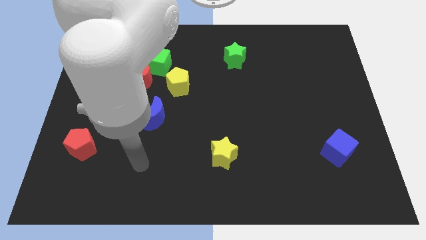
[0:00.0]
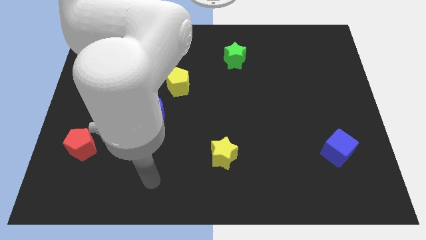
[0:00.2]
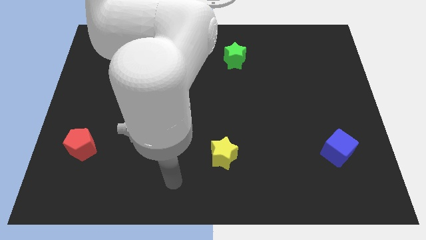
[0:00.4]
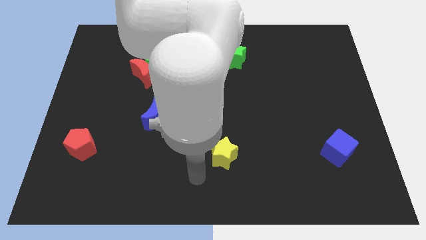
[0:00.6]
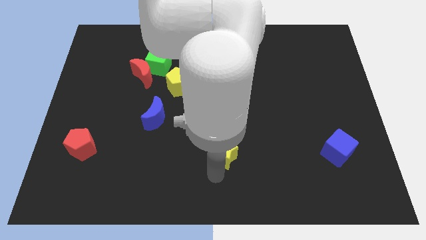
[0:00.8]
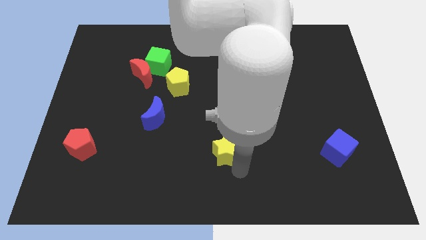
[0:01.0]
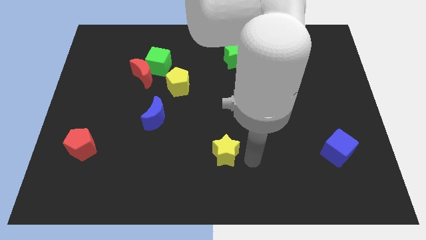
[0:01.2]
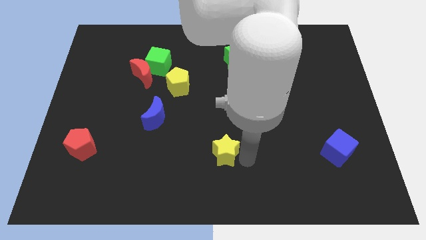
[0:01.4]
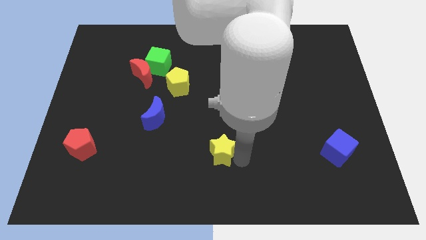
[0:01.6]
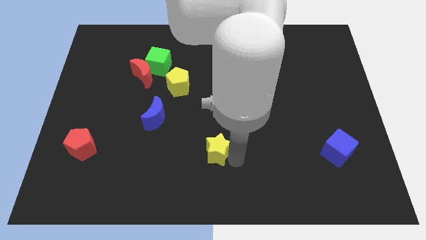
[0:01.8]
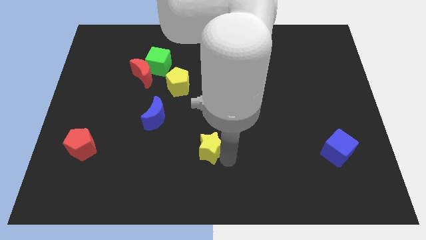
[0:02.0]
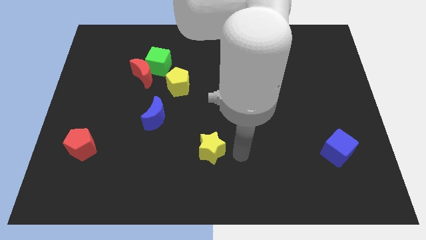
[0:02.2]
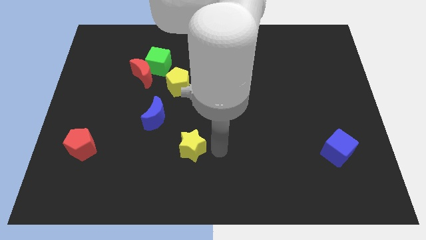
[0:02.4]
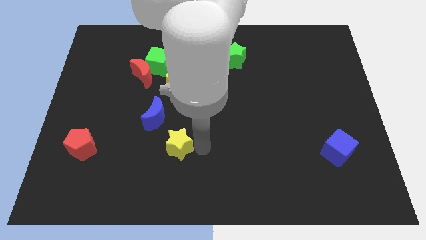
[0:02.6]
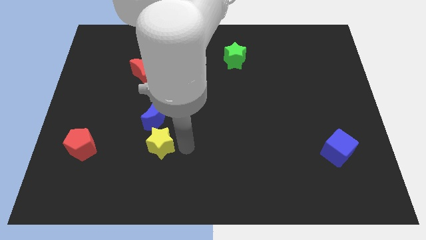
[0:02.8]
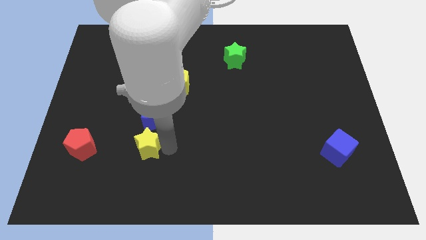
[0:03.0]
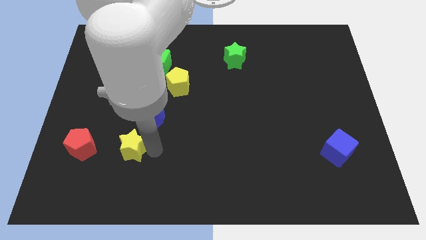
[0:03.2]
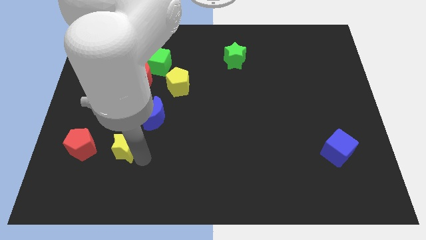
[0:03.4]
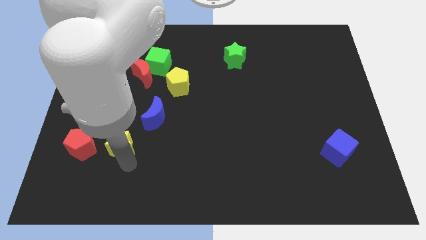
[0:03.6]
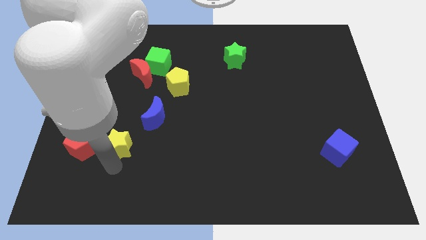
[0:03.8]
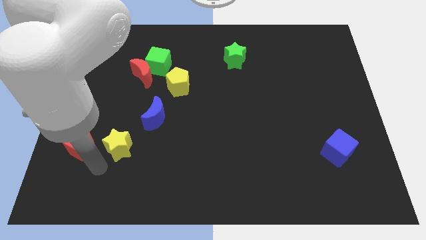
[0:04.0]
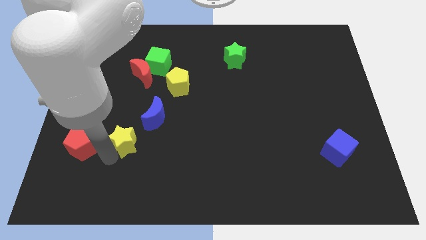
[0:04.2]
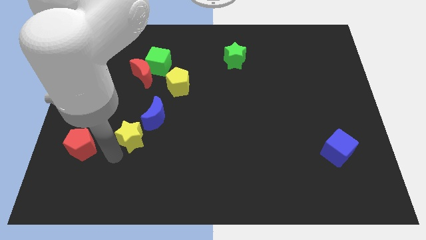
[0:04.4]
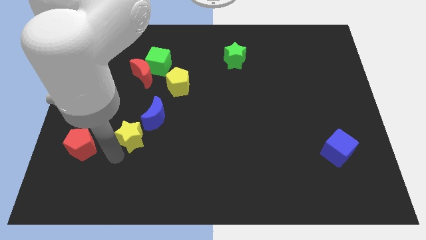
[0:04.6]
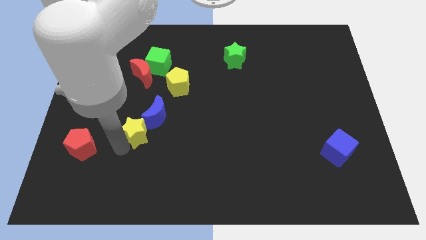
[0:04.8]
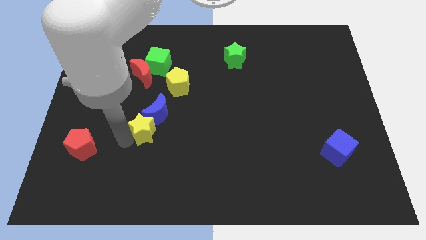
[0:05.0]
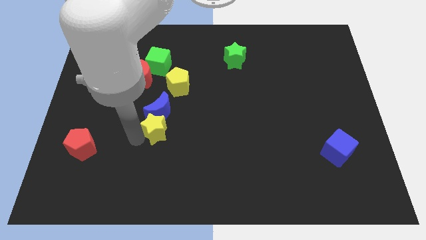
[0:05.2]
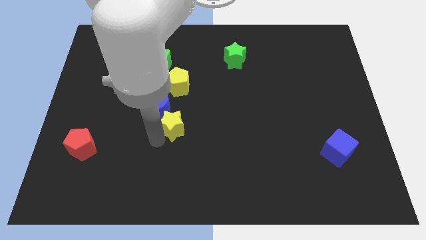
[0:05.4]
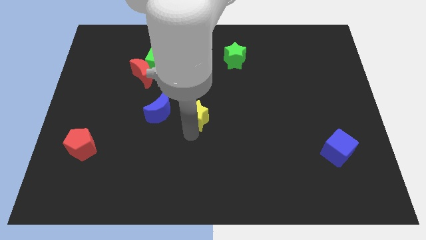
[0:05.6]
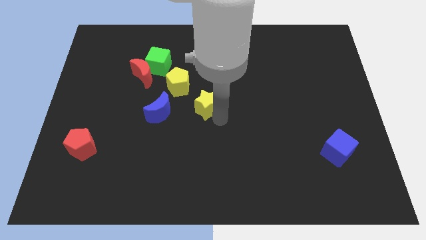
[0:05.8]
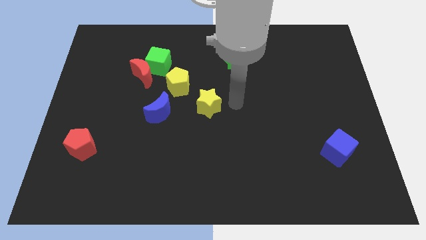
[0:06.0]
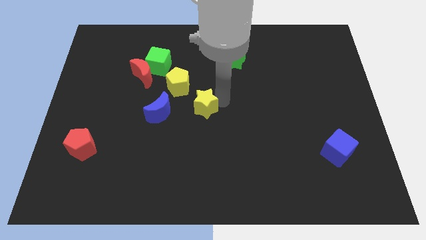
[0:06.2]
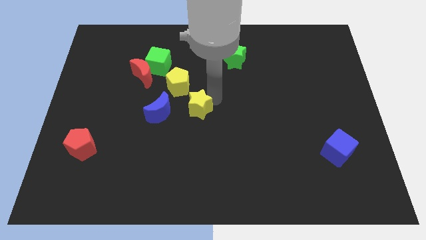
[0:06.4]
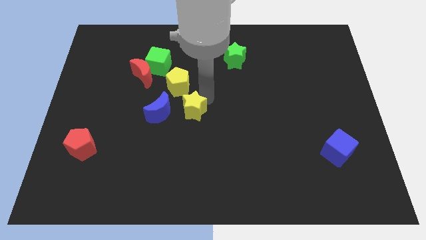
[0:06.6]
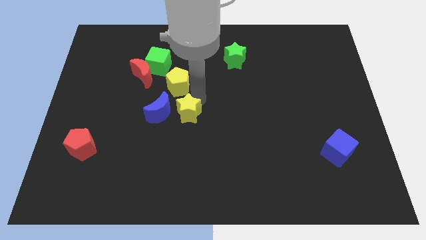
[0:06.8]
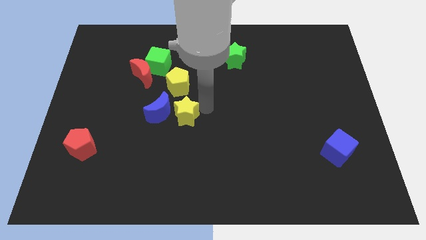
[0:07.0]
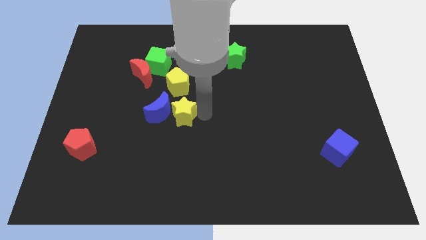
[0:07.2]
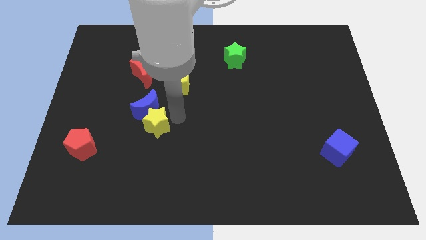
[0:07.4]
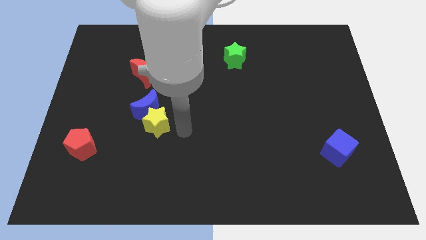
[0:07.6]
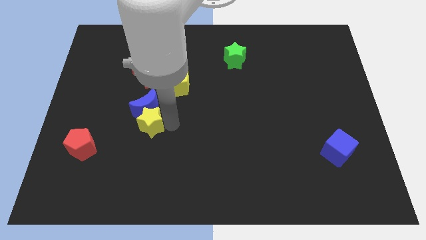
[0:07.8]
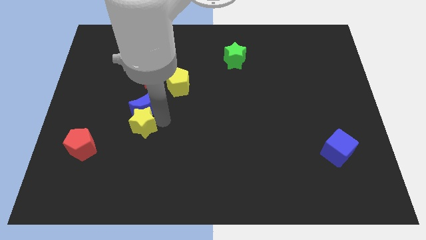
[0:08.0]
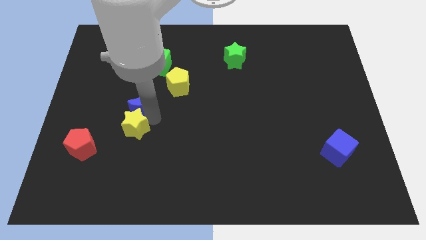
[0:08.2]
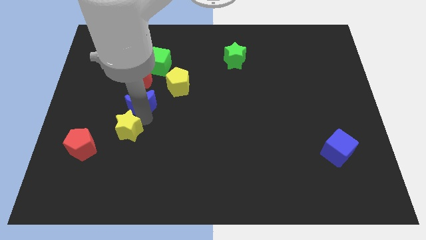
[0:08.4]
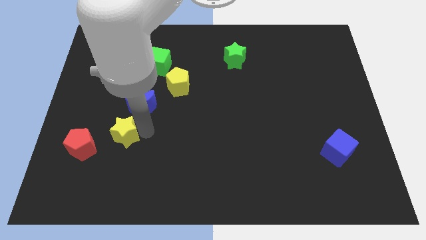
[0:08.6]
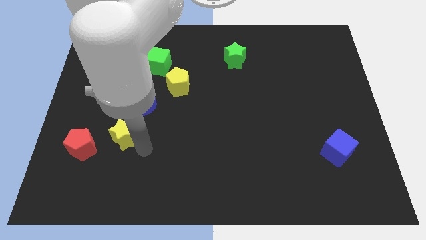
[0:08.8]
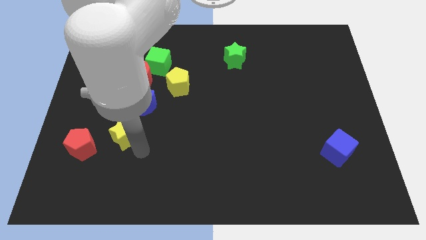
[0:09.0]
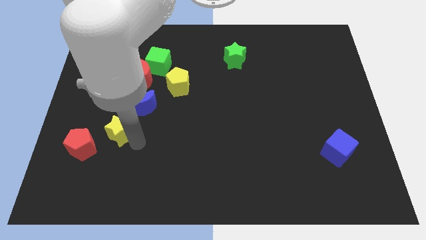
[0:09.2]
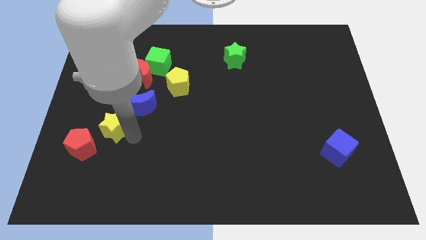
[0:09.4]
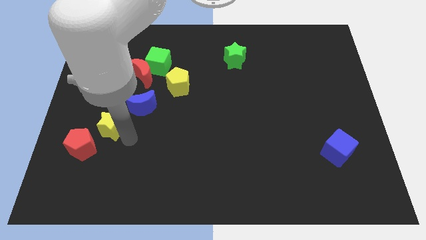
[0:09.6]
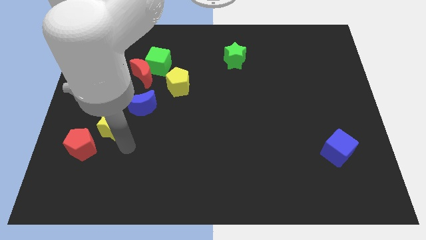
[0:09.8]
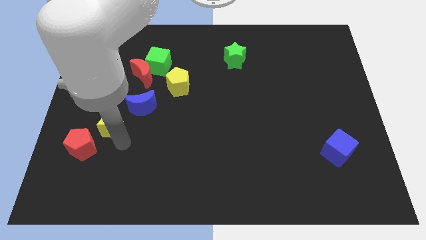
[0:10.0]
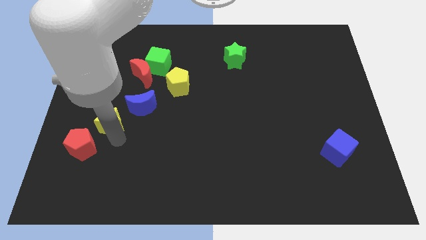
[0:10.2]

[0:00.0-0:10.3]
put the yellow star just left of the blue moon

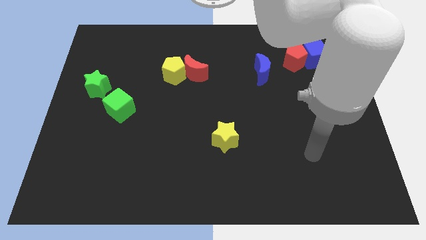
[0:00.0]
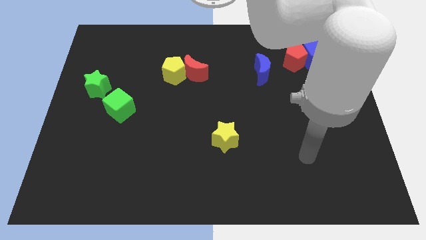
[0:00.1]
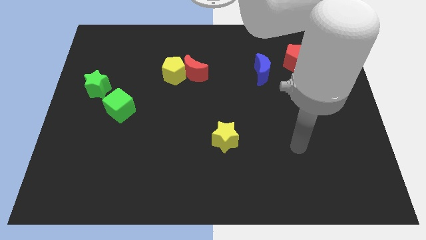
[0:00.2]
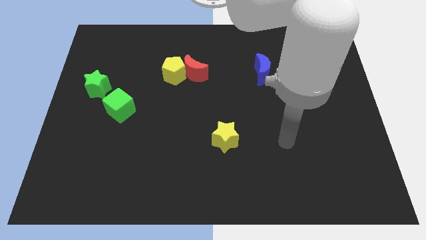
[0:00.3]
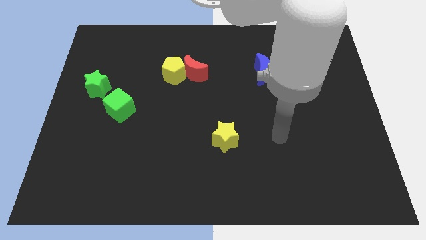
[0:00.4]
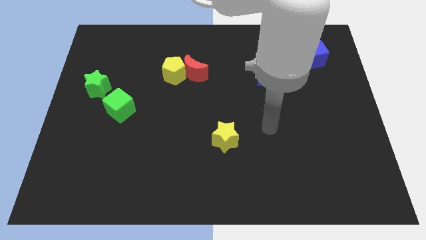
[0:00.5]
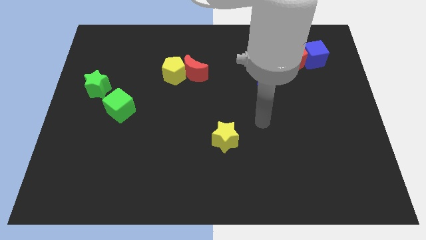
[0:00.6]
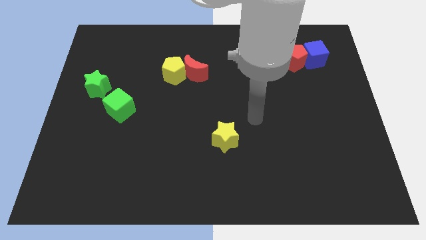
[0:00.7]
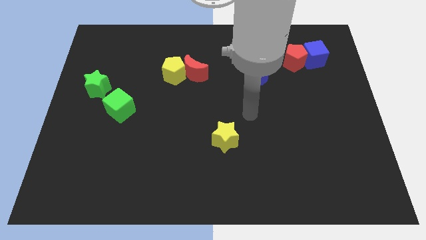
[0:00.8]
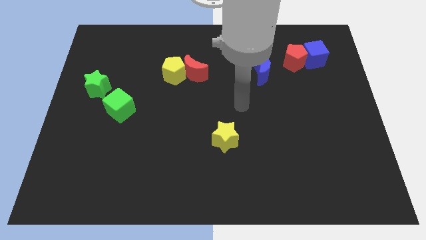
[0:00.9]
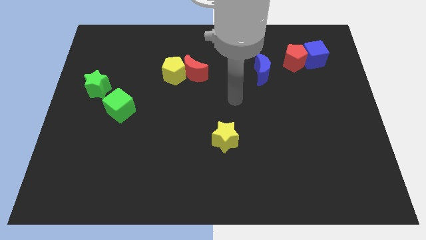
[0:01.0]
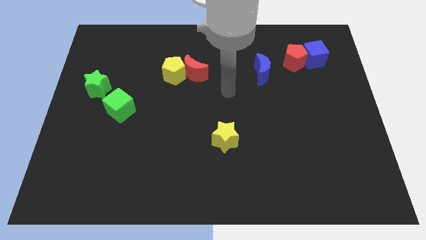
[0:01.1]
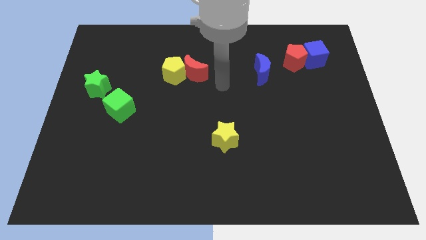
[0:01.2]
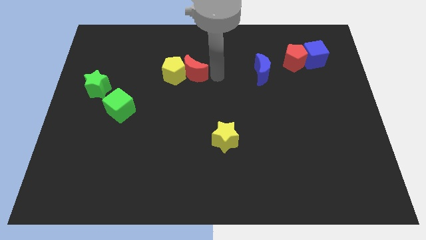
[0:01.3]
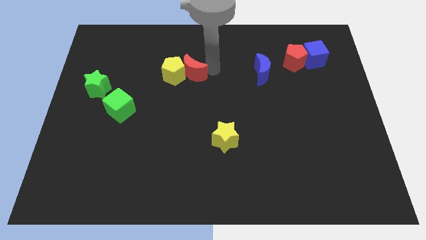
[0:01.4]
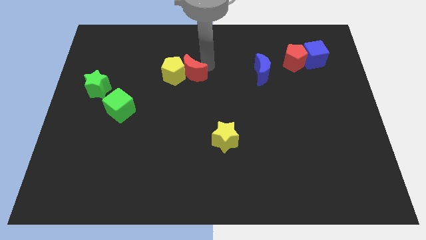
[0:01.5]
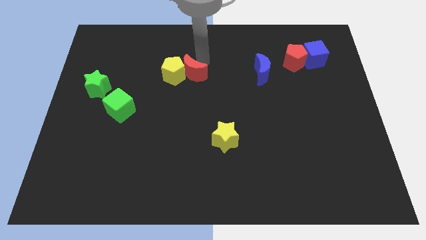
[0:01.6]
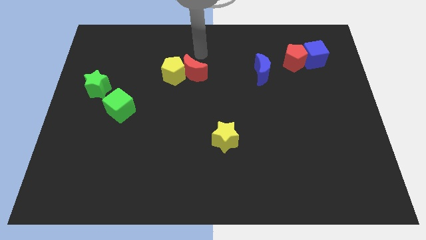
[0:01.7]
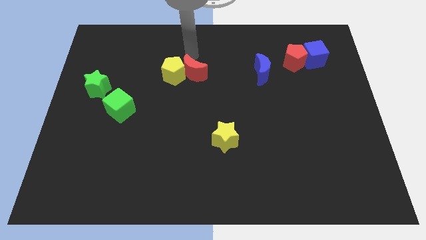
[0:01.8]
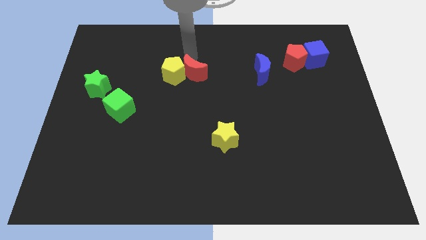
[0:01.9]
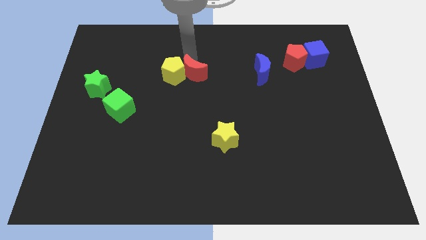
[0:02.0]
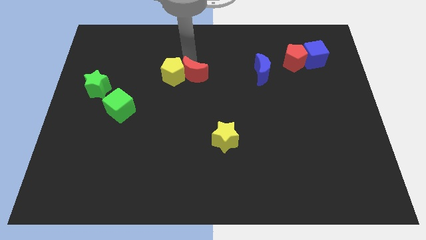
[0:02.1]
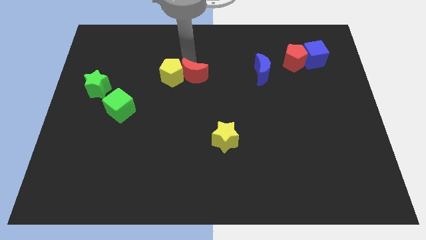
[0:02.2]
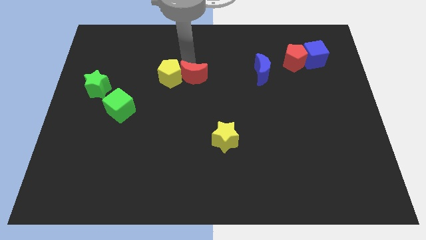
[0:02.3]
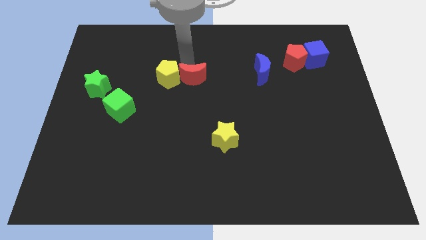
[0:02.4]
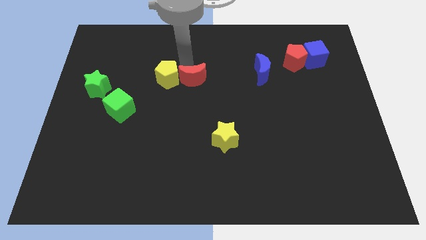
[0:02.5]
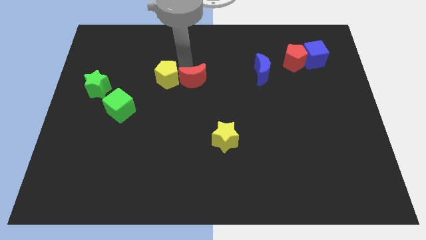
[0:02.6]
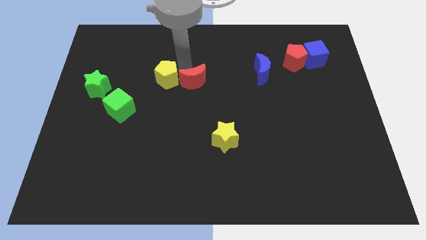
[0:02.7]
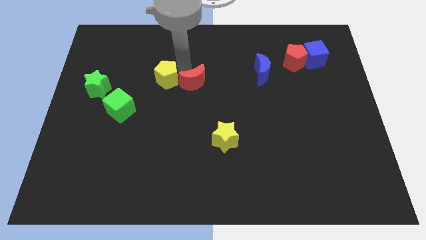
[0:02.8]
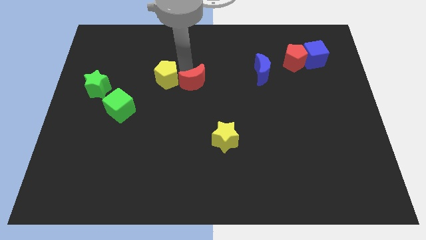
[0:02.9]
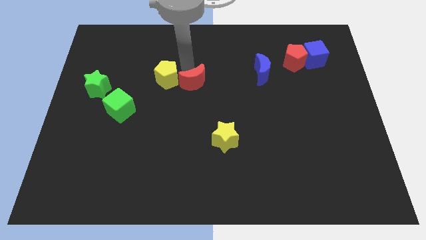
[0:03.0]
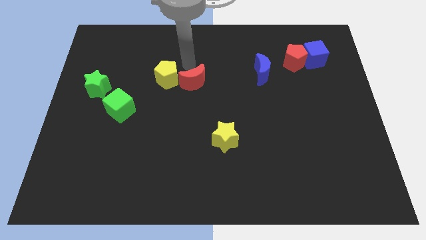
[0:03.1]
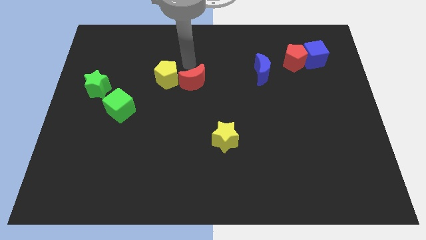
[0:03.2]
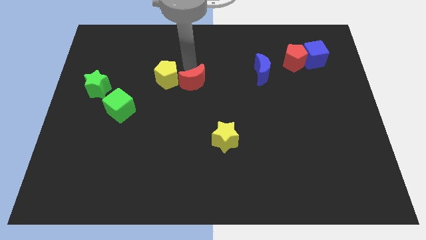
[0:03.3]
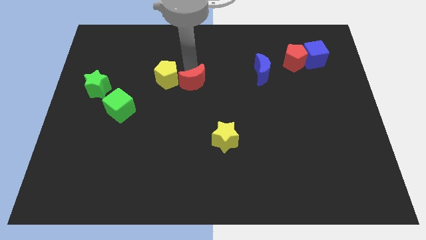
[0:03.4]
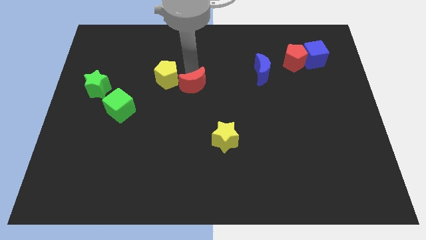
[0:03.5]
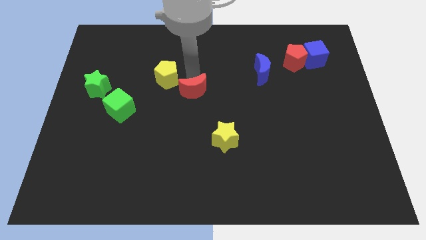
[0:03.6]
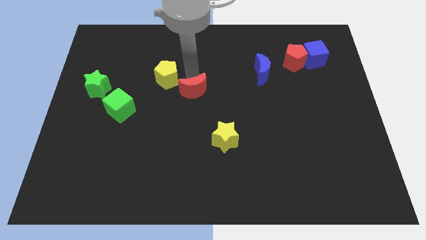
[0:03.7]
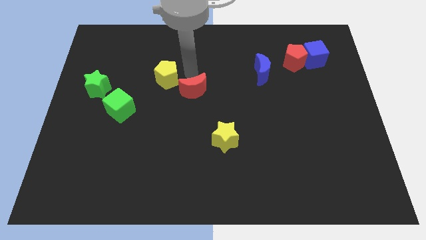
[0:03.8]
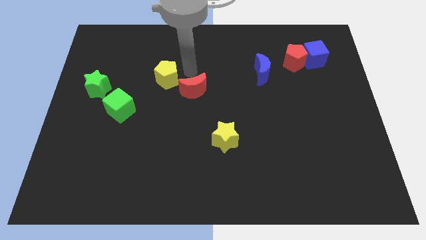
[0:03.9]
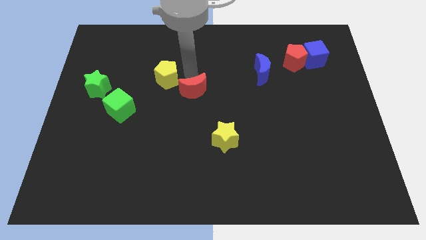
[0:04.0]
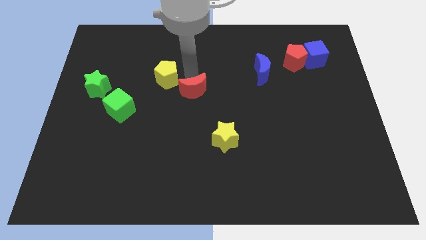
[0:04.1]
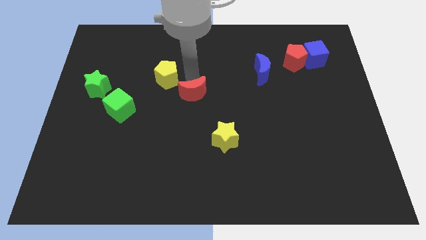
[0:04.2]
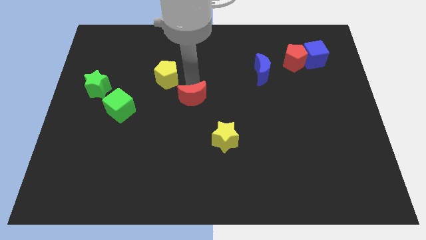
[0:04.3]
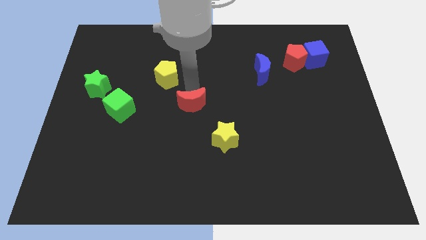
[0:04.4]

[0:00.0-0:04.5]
push the red moon to the top left side of the yellow star
